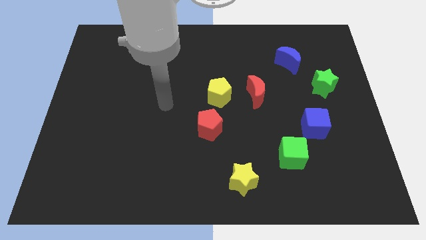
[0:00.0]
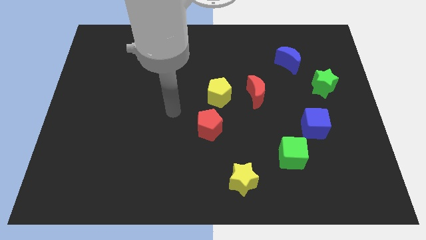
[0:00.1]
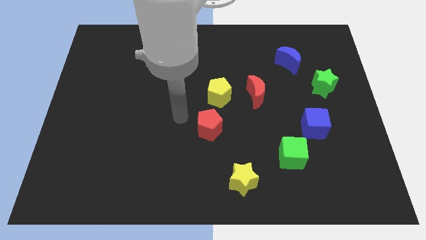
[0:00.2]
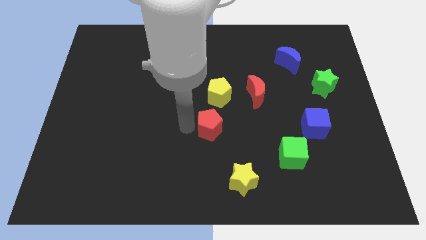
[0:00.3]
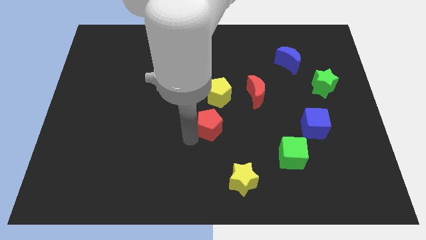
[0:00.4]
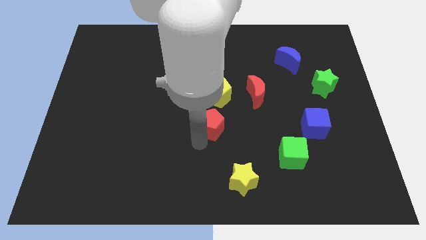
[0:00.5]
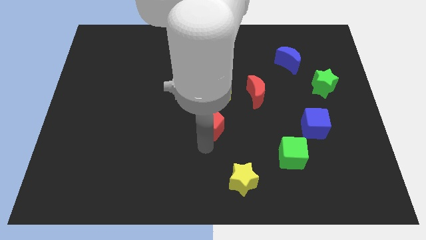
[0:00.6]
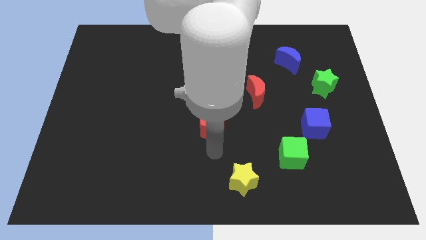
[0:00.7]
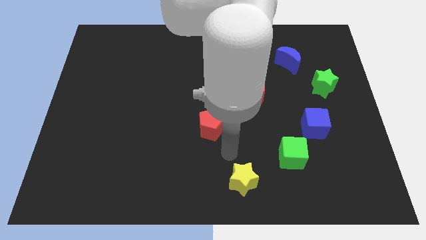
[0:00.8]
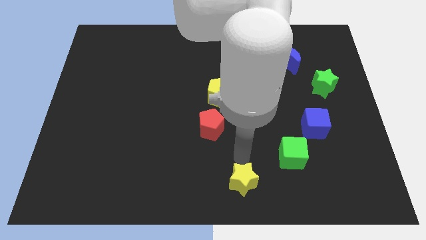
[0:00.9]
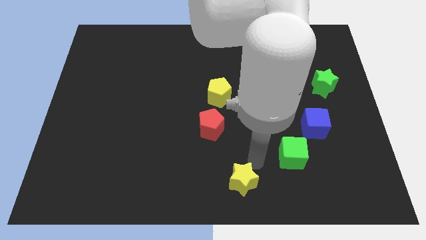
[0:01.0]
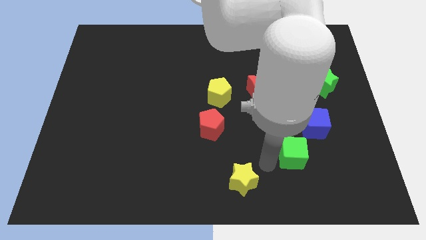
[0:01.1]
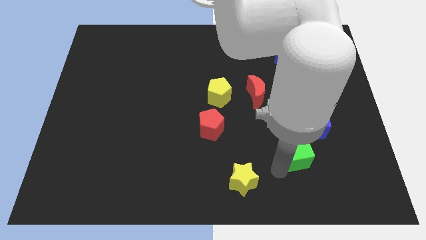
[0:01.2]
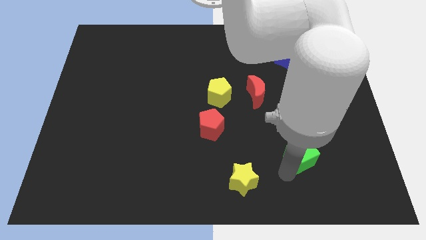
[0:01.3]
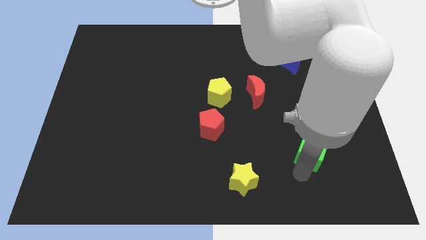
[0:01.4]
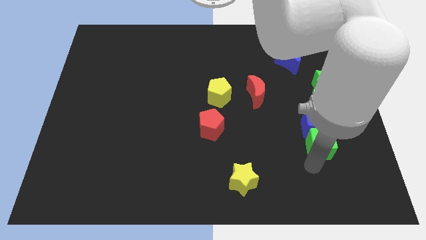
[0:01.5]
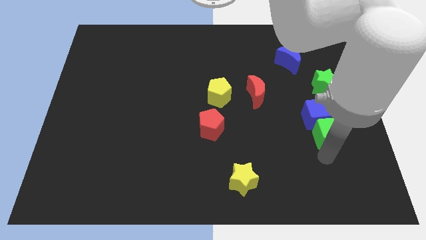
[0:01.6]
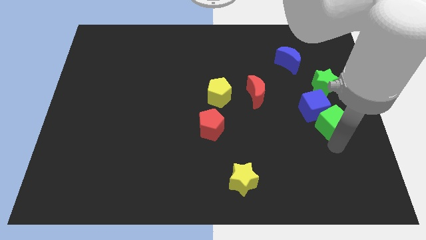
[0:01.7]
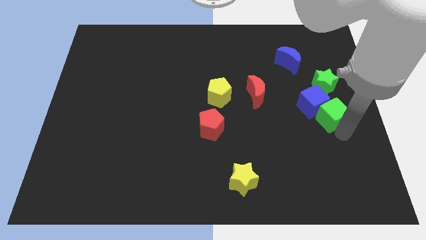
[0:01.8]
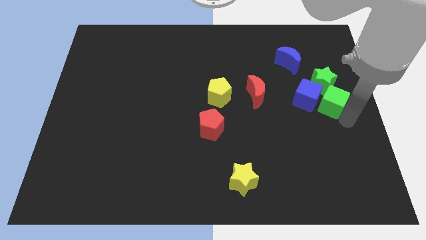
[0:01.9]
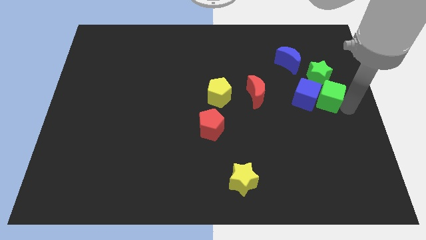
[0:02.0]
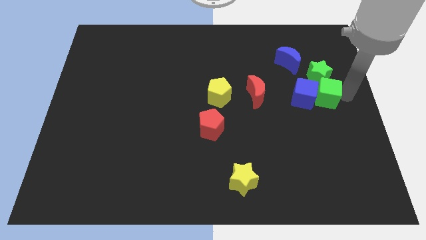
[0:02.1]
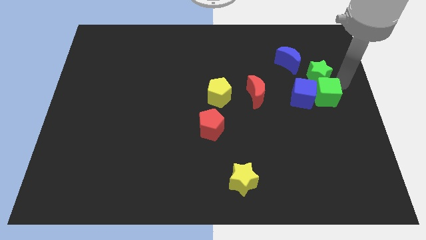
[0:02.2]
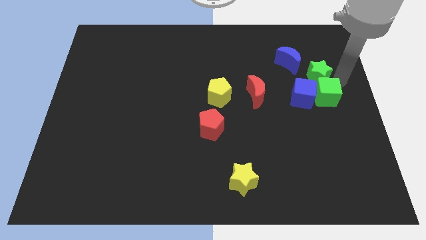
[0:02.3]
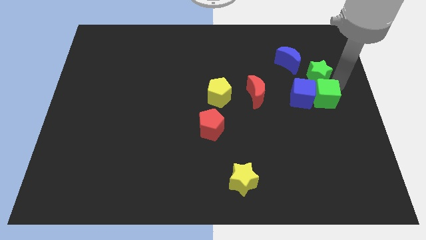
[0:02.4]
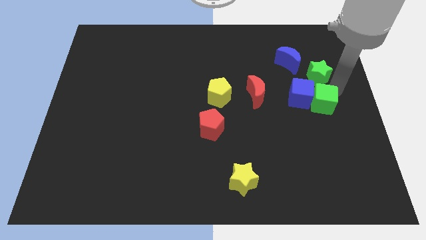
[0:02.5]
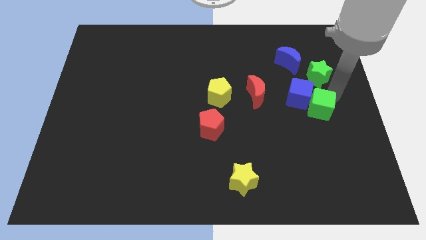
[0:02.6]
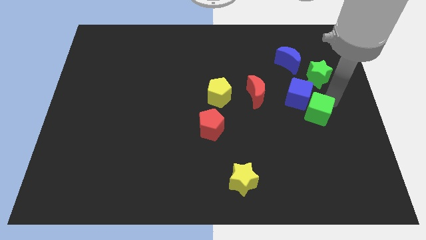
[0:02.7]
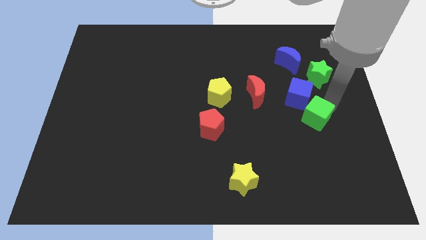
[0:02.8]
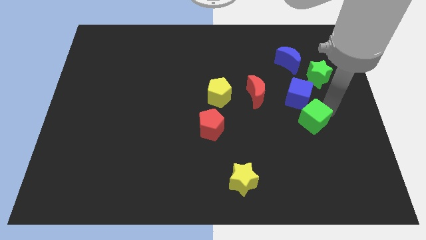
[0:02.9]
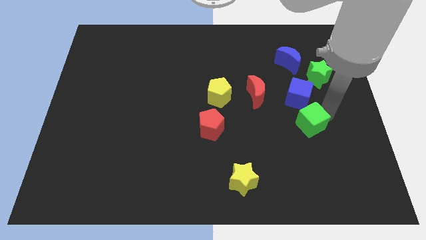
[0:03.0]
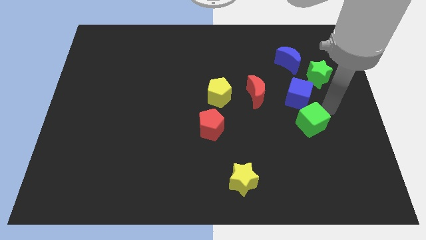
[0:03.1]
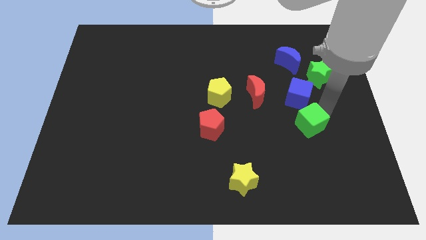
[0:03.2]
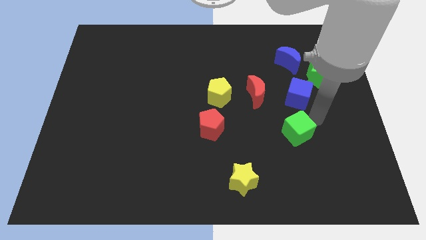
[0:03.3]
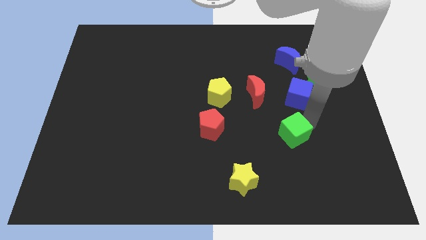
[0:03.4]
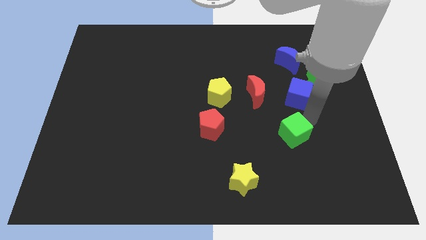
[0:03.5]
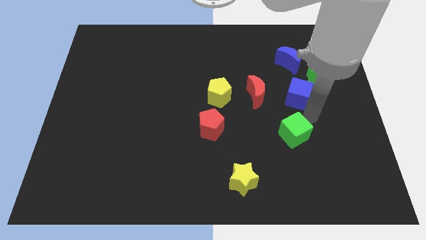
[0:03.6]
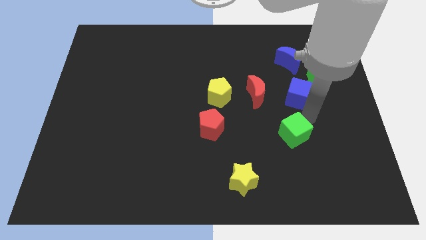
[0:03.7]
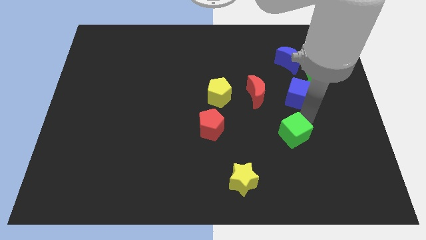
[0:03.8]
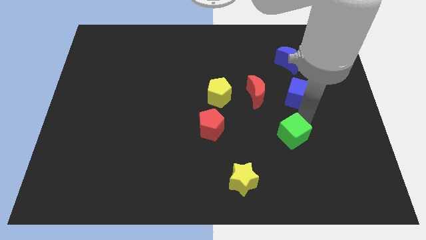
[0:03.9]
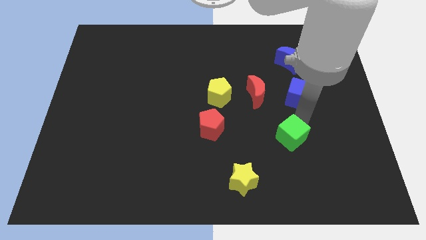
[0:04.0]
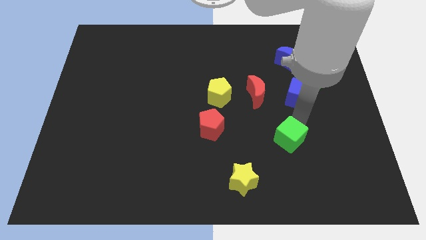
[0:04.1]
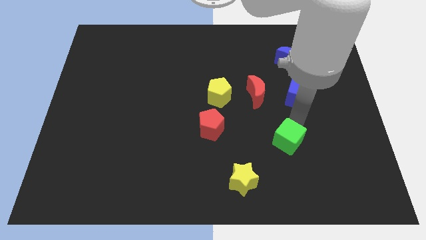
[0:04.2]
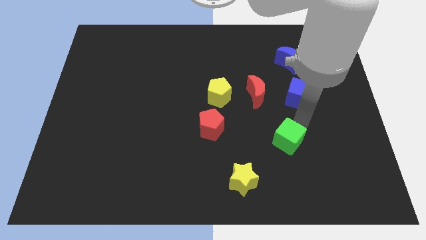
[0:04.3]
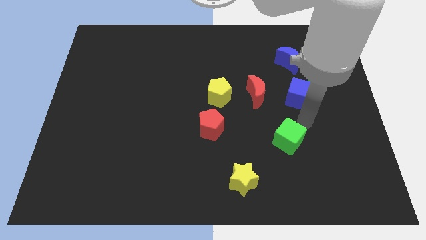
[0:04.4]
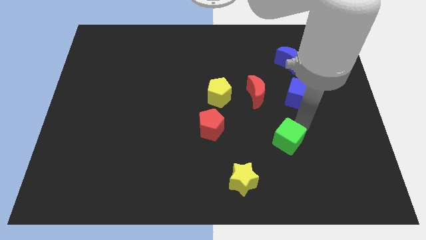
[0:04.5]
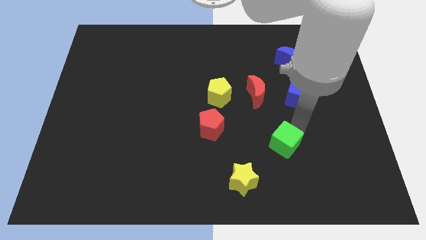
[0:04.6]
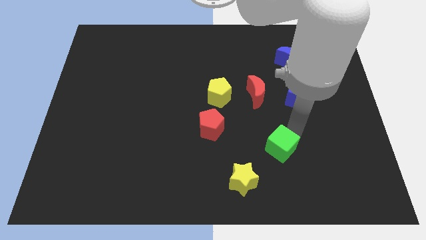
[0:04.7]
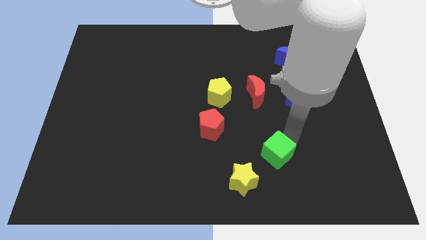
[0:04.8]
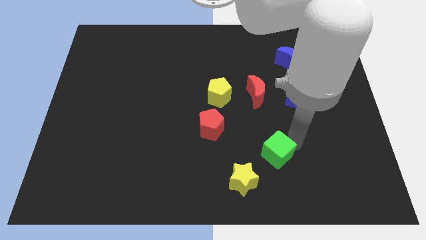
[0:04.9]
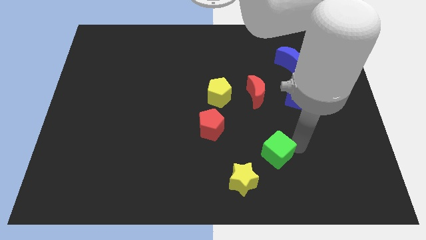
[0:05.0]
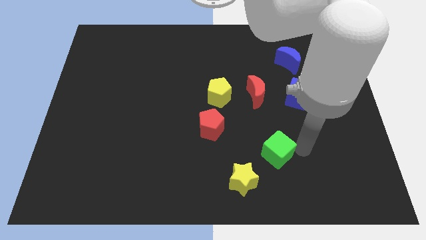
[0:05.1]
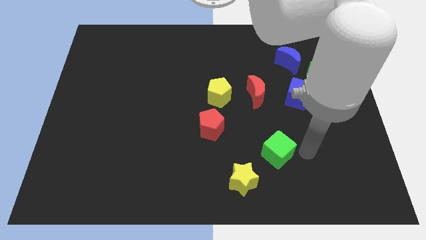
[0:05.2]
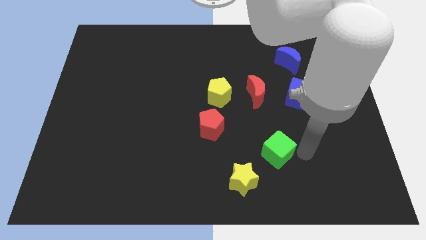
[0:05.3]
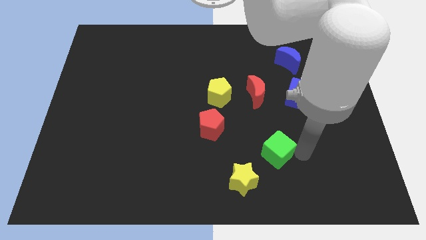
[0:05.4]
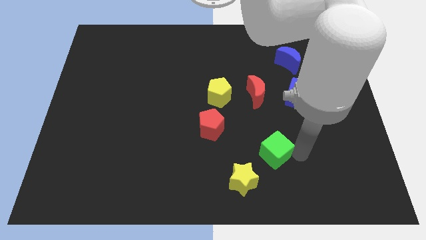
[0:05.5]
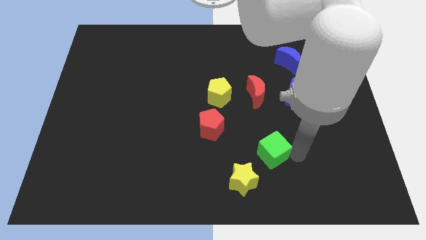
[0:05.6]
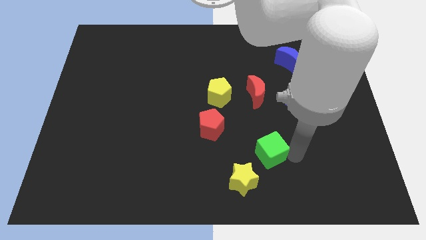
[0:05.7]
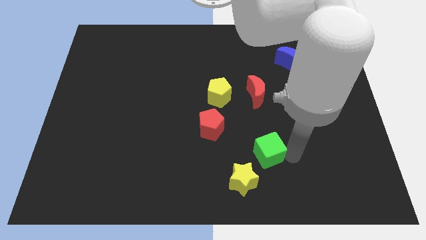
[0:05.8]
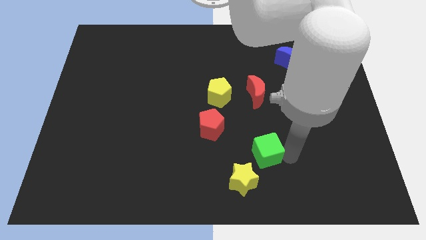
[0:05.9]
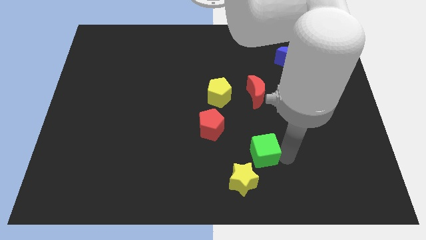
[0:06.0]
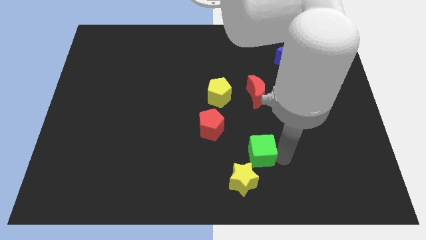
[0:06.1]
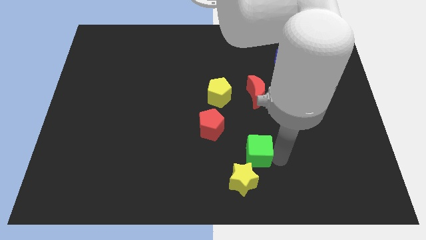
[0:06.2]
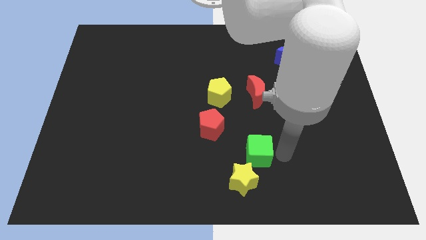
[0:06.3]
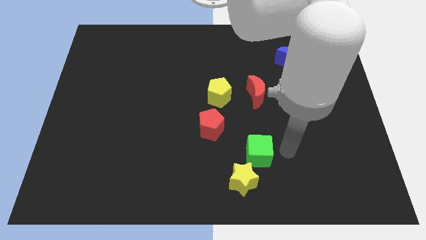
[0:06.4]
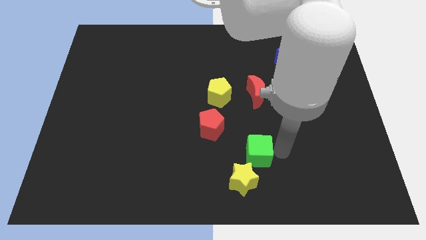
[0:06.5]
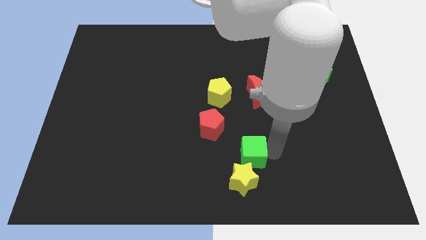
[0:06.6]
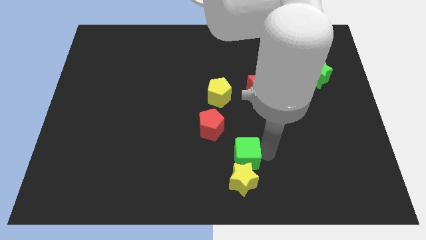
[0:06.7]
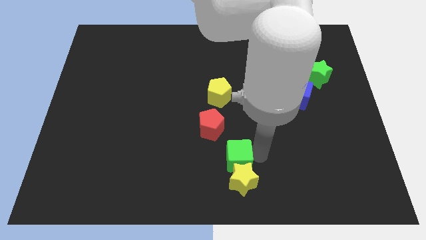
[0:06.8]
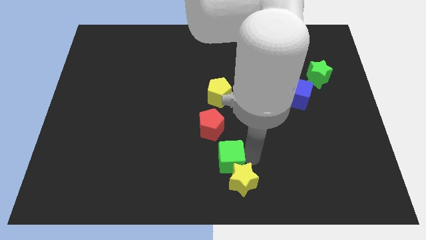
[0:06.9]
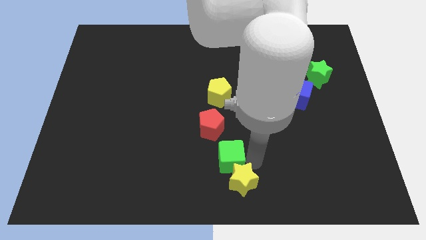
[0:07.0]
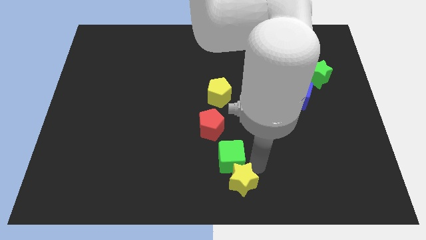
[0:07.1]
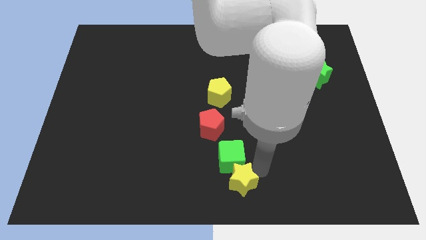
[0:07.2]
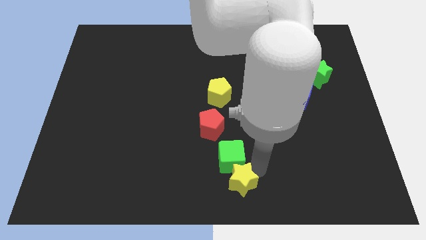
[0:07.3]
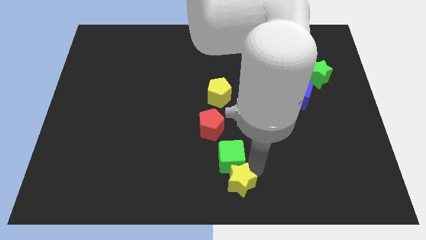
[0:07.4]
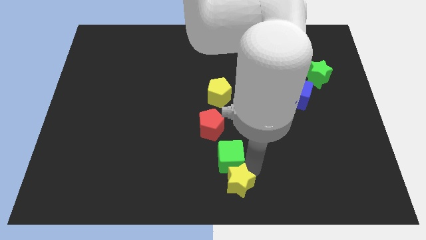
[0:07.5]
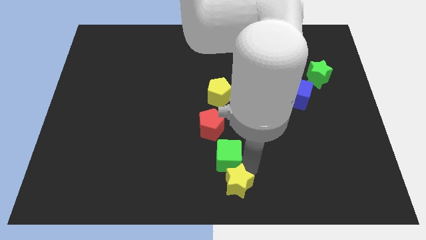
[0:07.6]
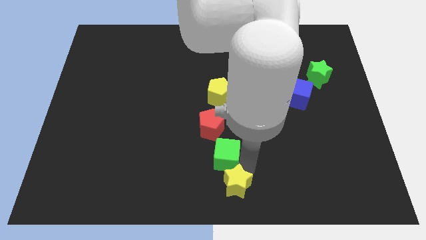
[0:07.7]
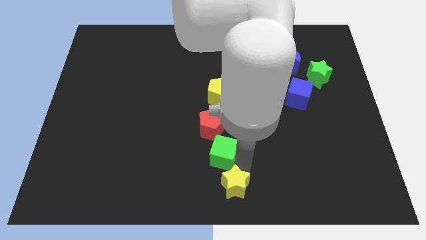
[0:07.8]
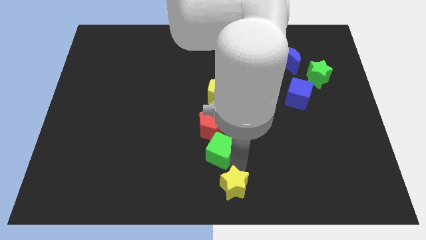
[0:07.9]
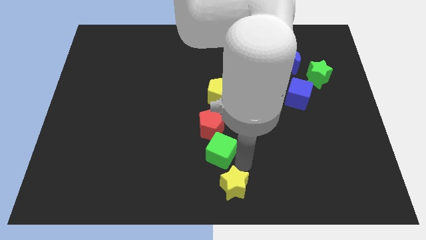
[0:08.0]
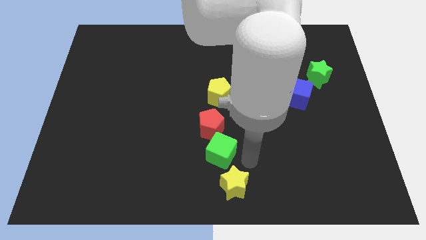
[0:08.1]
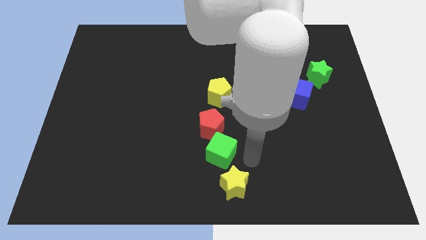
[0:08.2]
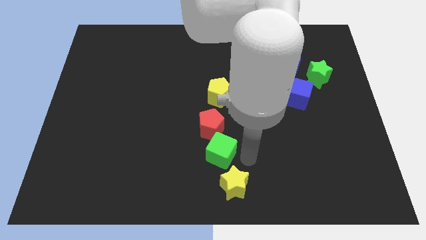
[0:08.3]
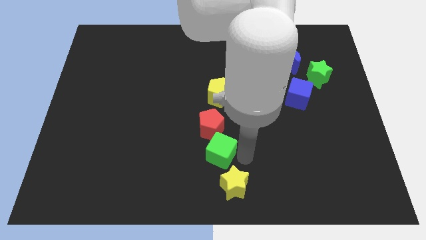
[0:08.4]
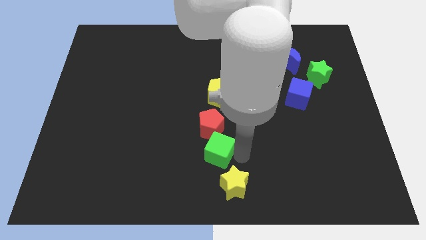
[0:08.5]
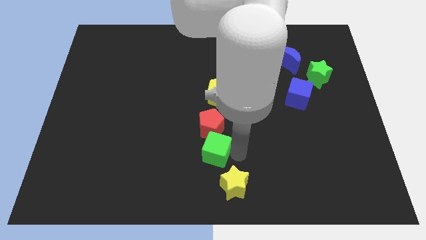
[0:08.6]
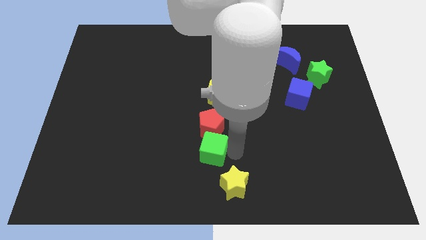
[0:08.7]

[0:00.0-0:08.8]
push the green cube to the bottom left of the red pentagon
